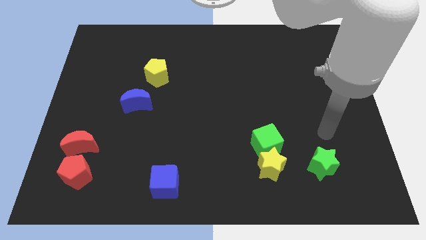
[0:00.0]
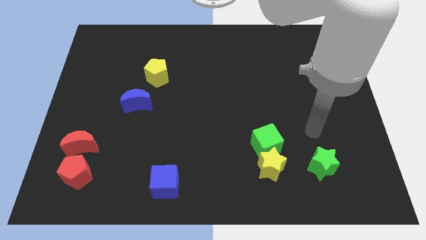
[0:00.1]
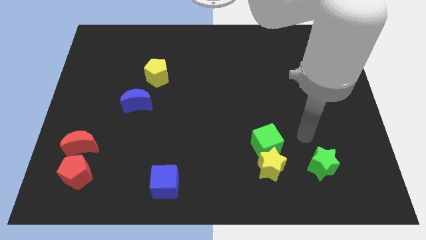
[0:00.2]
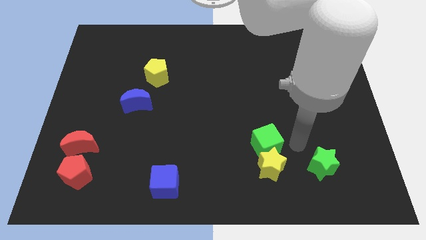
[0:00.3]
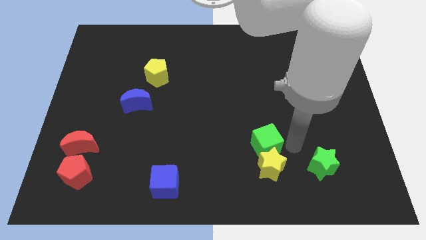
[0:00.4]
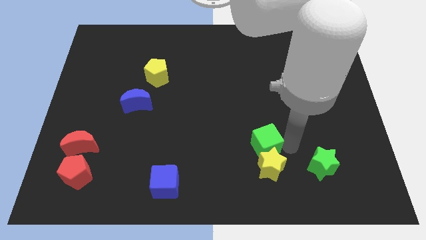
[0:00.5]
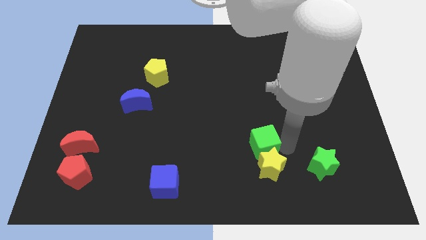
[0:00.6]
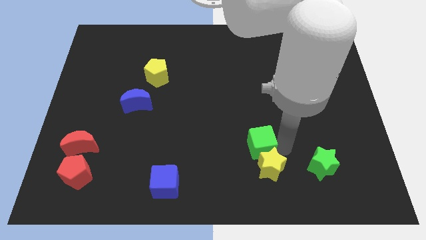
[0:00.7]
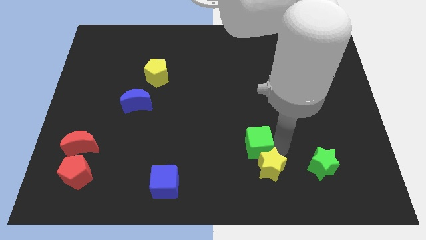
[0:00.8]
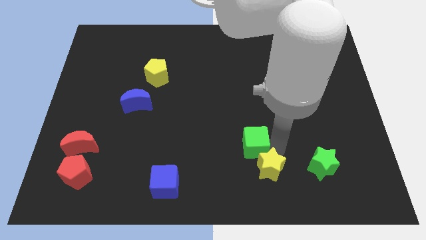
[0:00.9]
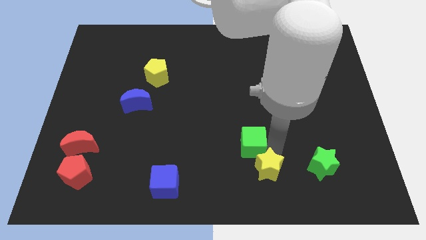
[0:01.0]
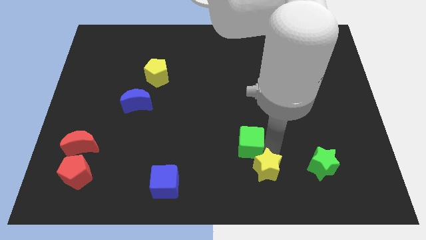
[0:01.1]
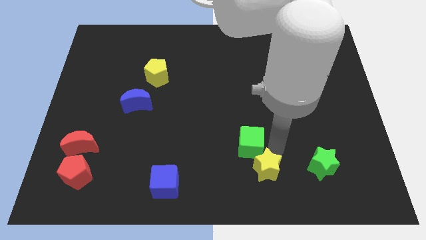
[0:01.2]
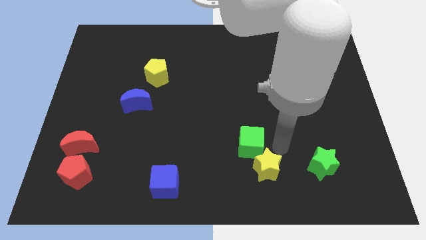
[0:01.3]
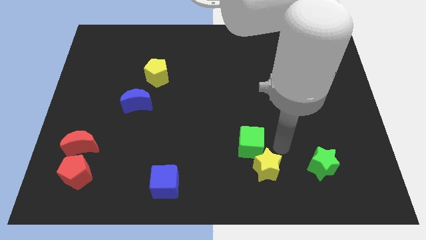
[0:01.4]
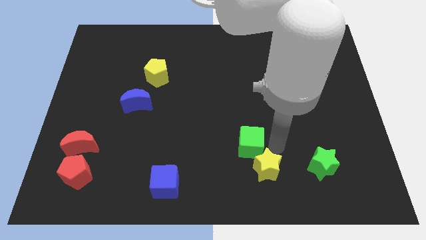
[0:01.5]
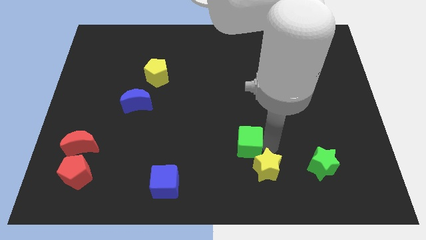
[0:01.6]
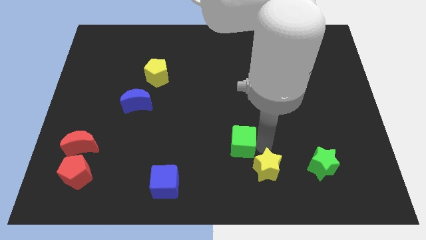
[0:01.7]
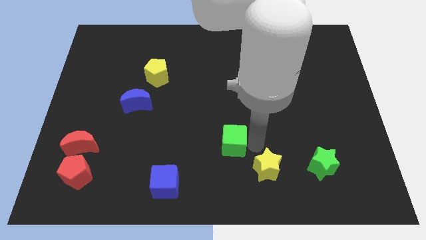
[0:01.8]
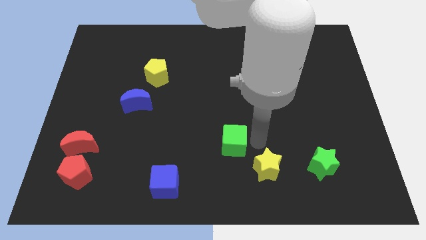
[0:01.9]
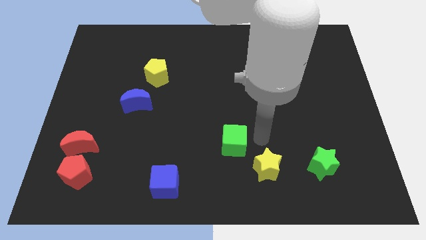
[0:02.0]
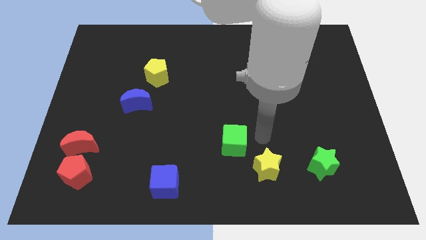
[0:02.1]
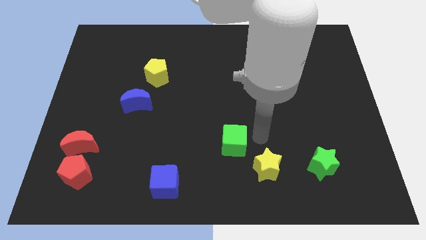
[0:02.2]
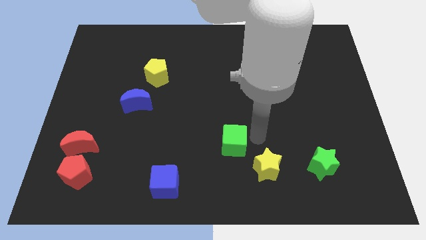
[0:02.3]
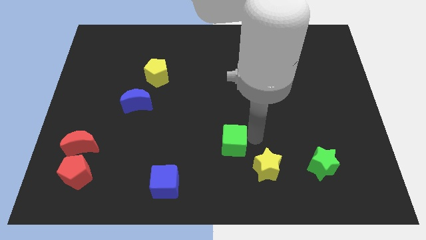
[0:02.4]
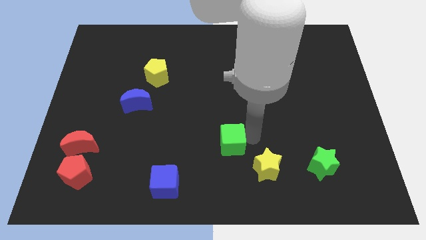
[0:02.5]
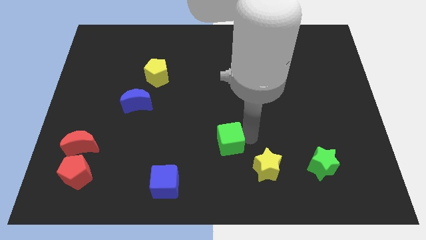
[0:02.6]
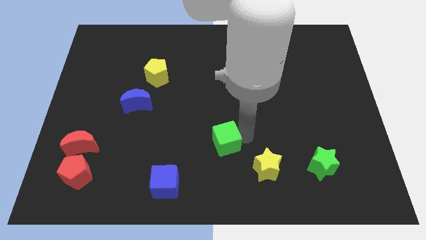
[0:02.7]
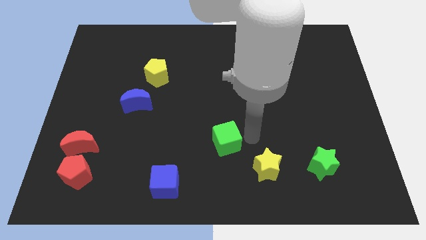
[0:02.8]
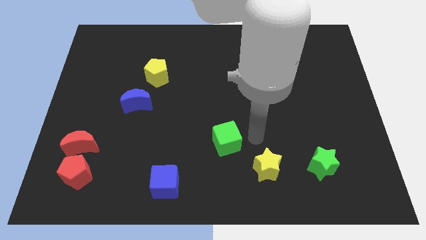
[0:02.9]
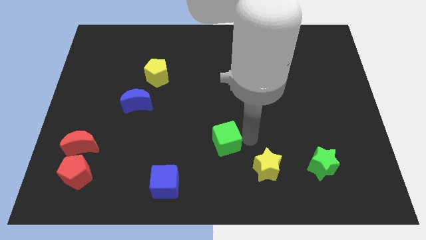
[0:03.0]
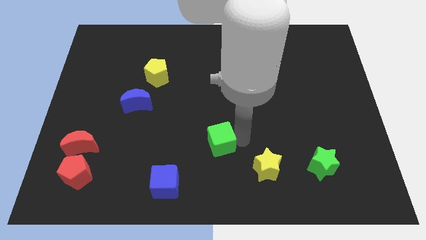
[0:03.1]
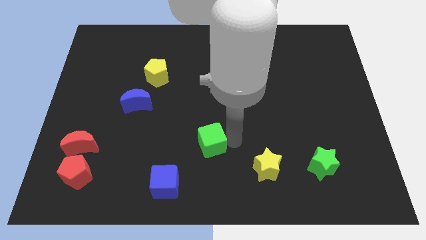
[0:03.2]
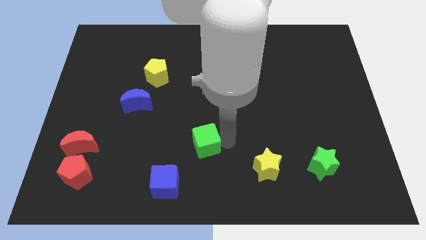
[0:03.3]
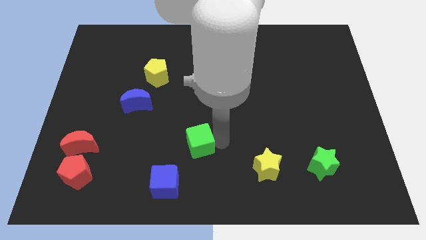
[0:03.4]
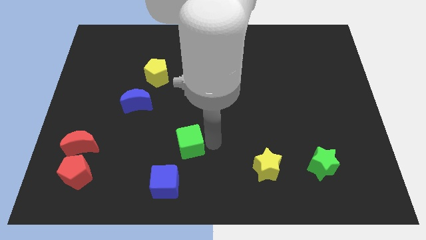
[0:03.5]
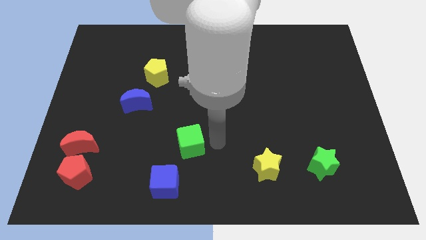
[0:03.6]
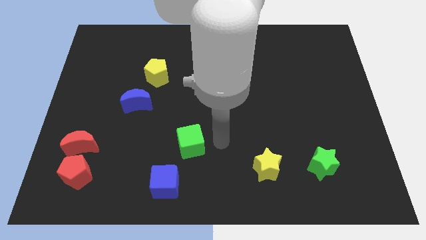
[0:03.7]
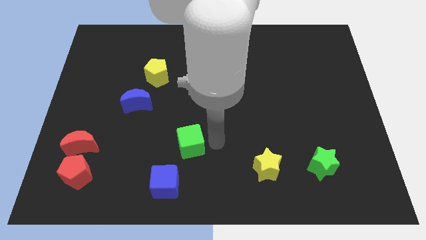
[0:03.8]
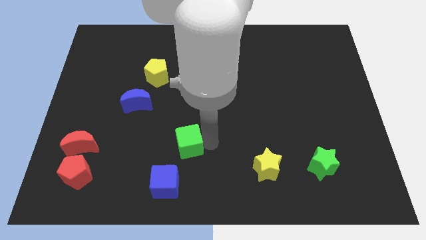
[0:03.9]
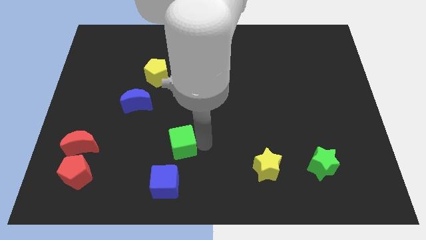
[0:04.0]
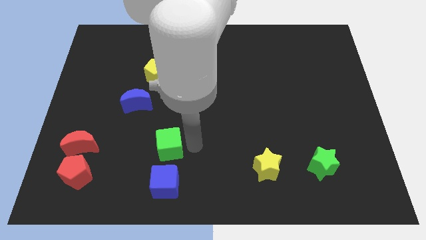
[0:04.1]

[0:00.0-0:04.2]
push the green cube left

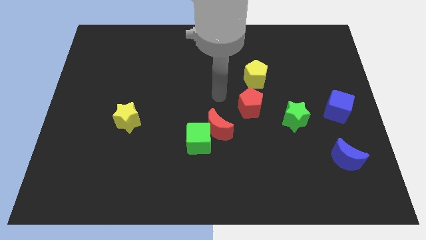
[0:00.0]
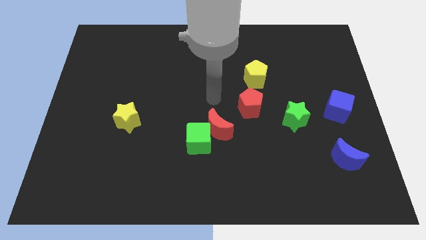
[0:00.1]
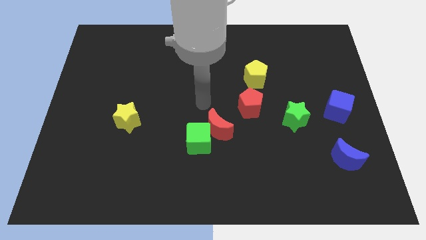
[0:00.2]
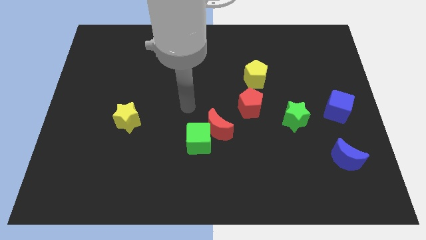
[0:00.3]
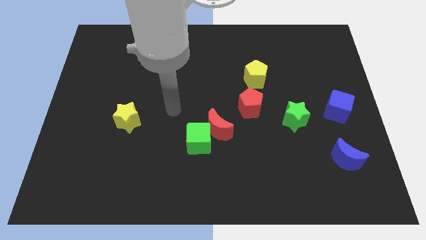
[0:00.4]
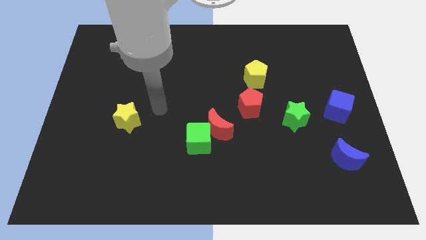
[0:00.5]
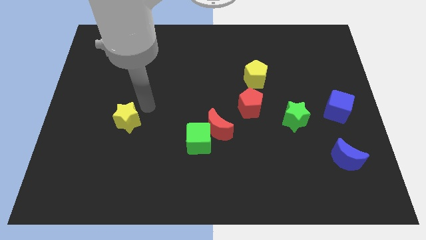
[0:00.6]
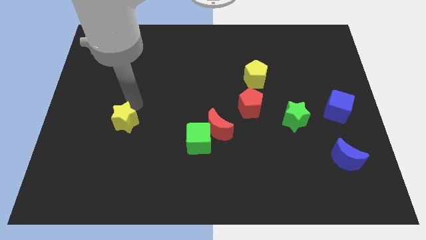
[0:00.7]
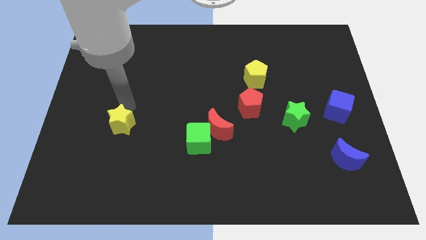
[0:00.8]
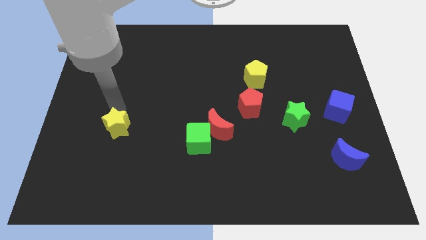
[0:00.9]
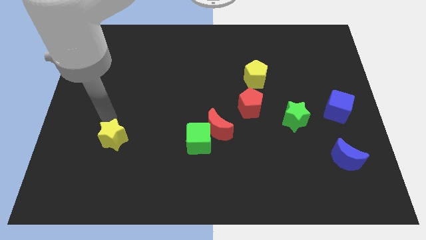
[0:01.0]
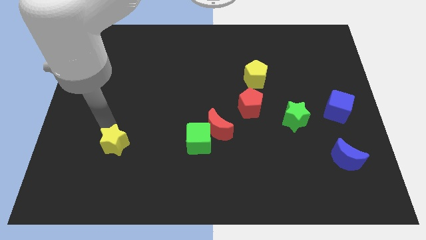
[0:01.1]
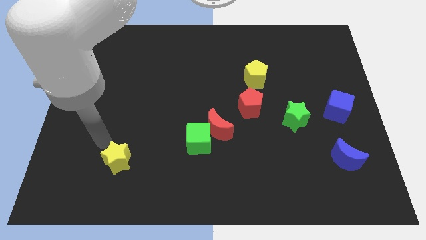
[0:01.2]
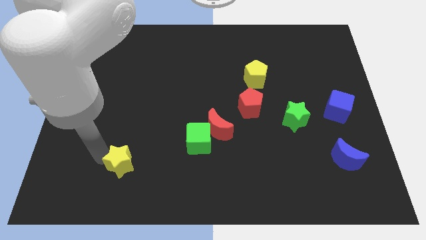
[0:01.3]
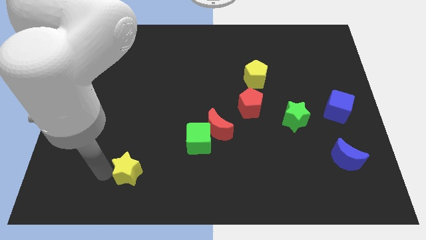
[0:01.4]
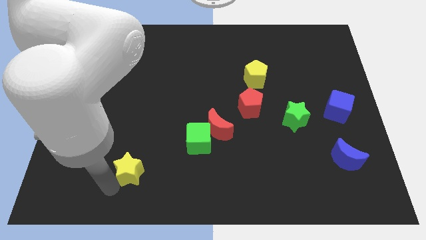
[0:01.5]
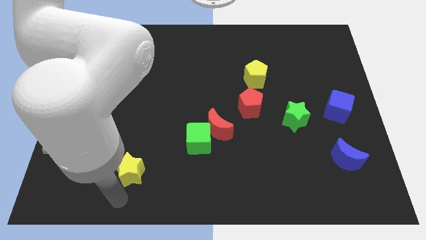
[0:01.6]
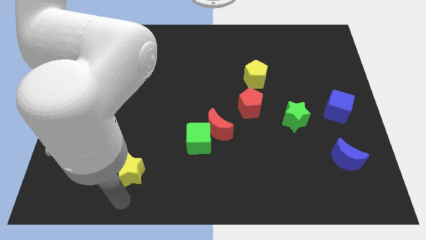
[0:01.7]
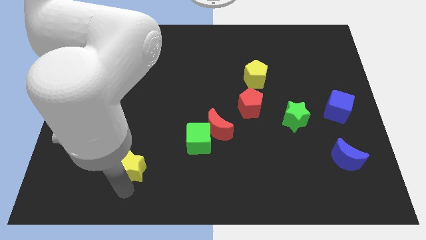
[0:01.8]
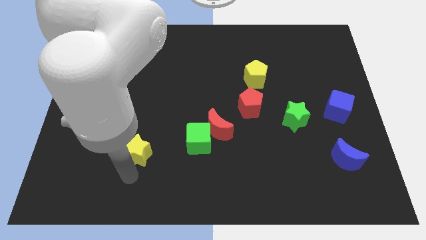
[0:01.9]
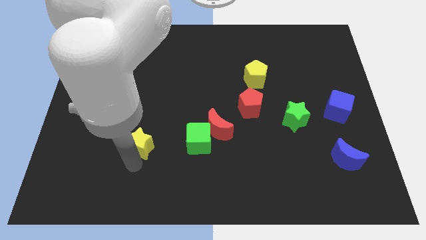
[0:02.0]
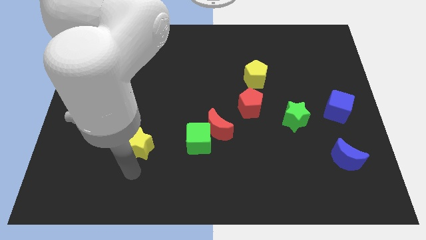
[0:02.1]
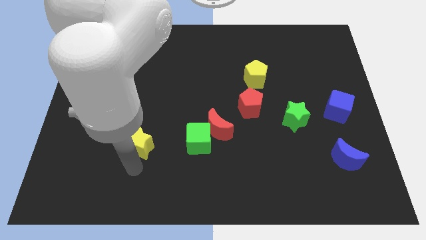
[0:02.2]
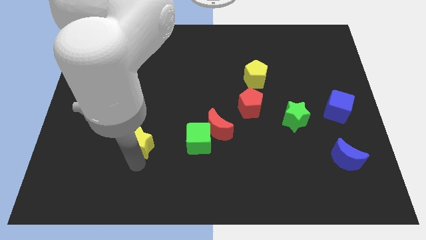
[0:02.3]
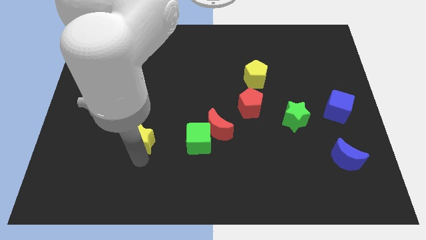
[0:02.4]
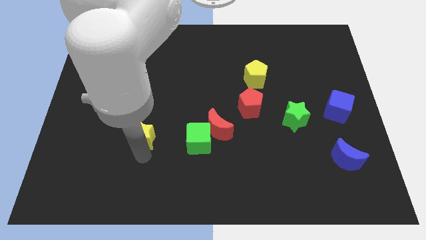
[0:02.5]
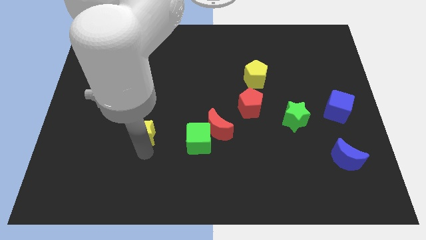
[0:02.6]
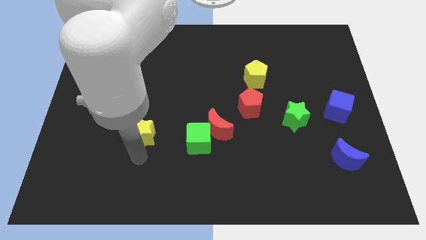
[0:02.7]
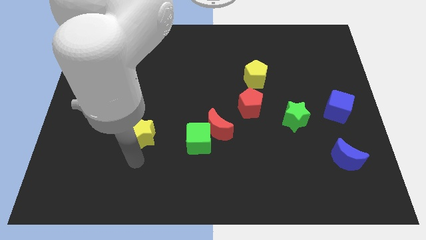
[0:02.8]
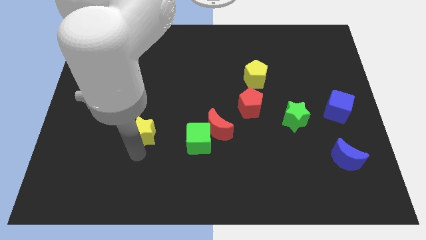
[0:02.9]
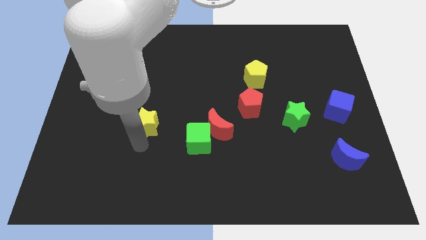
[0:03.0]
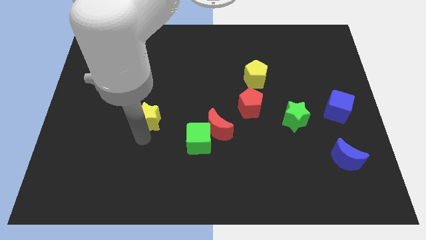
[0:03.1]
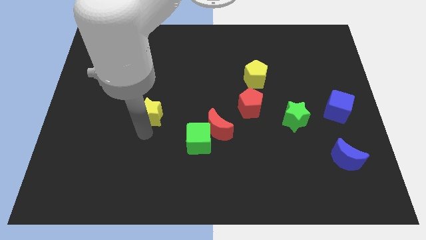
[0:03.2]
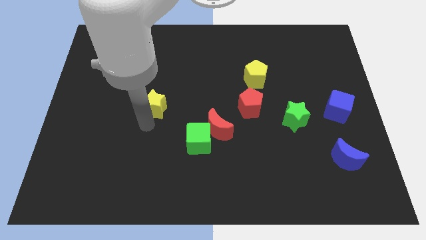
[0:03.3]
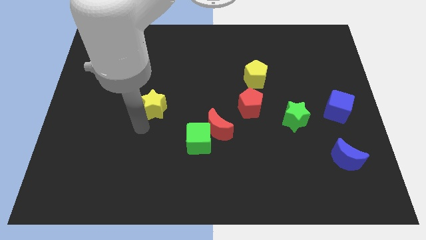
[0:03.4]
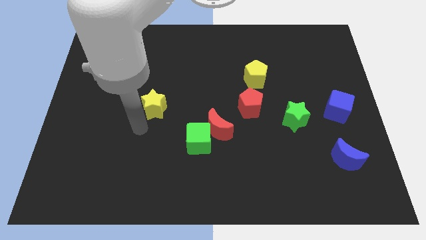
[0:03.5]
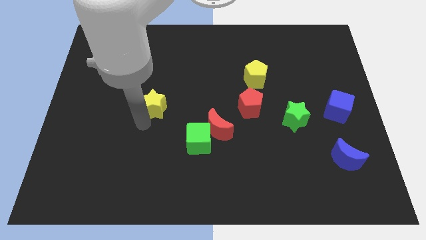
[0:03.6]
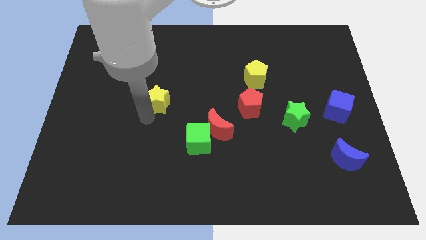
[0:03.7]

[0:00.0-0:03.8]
move the yellow star up and to the right diagonally somewhat
